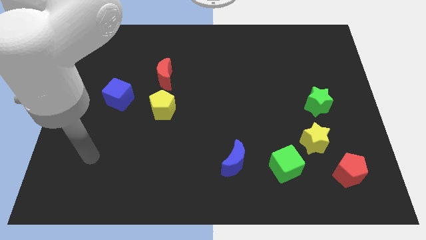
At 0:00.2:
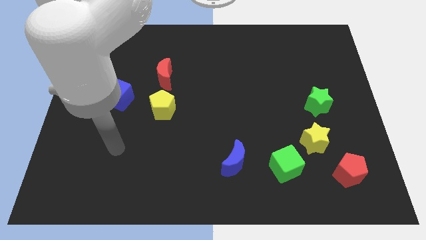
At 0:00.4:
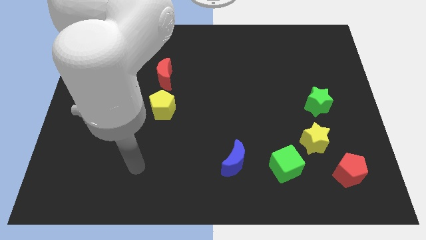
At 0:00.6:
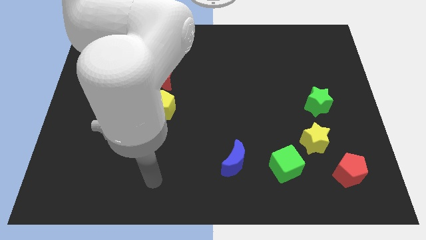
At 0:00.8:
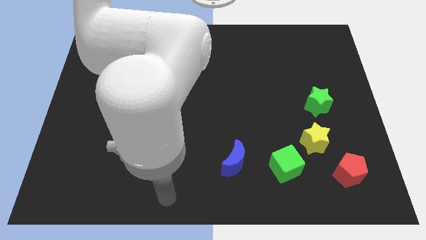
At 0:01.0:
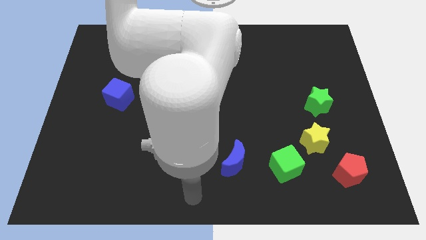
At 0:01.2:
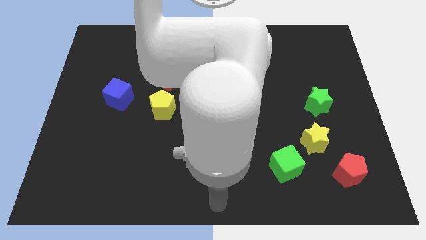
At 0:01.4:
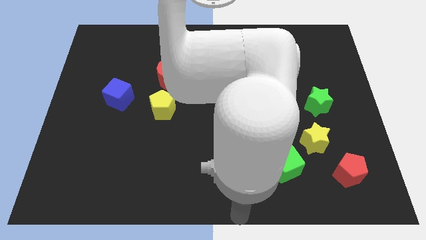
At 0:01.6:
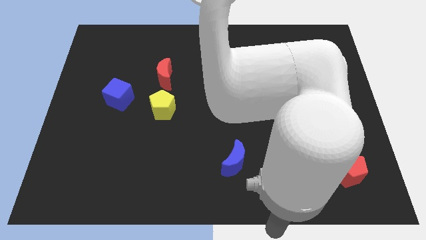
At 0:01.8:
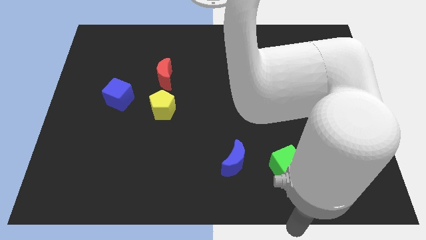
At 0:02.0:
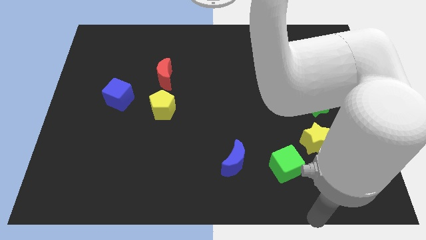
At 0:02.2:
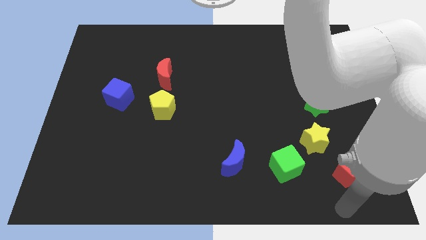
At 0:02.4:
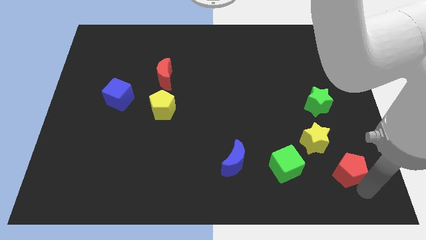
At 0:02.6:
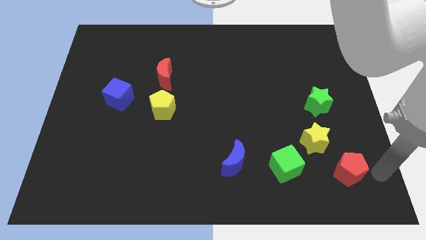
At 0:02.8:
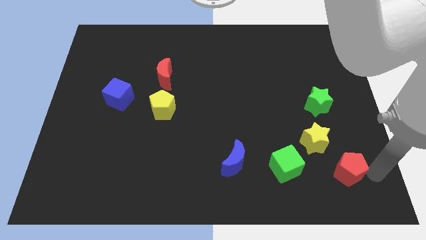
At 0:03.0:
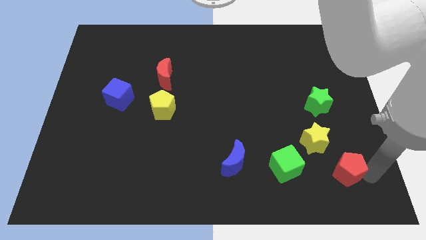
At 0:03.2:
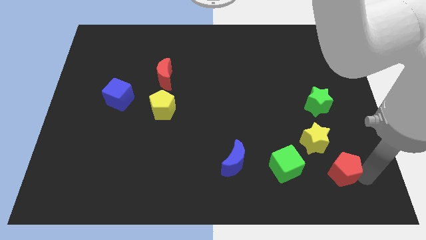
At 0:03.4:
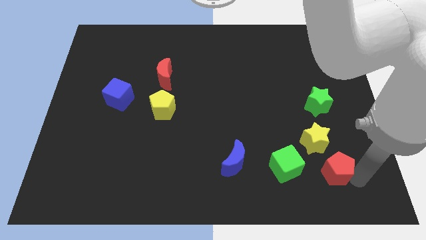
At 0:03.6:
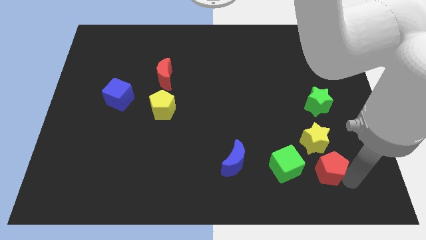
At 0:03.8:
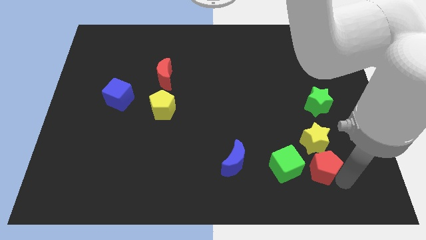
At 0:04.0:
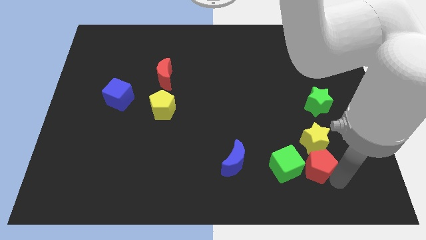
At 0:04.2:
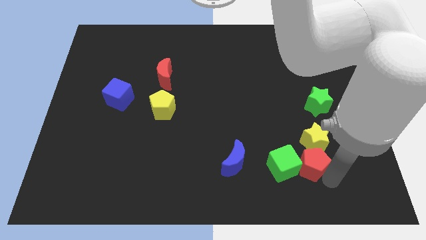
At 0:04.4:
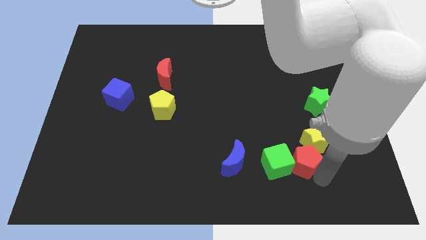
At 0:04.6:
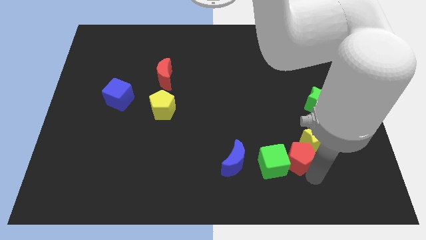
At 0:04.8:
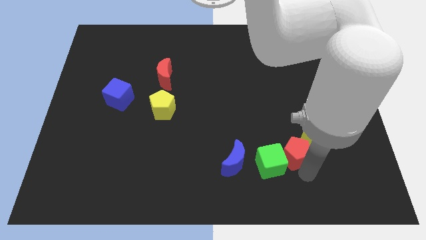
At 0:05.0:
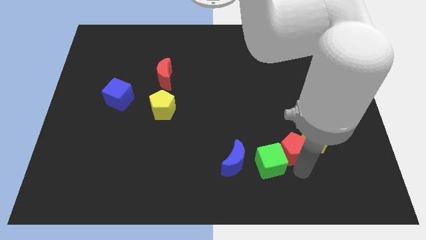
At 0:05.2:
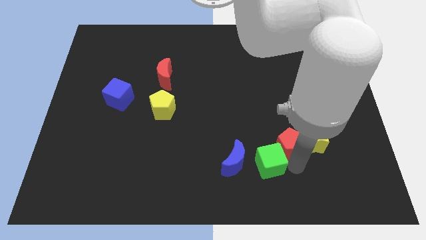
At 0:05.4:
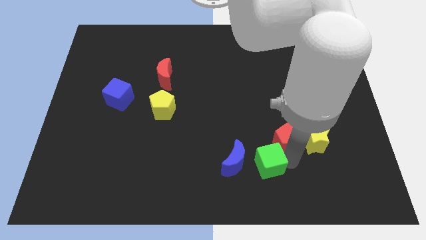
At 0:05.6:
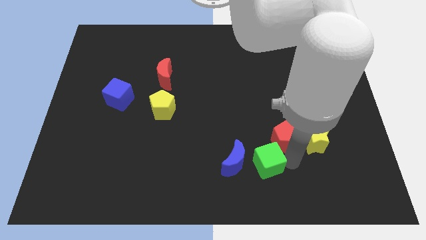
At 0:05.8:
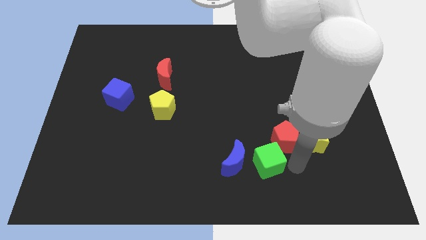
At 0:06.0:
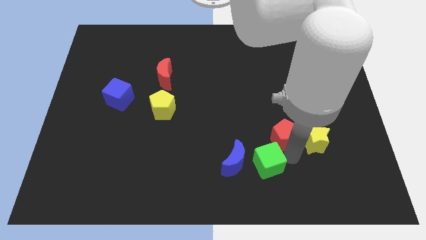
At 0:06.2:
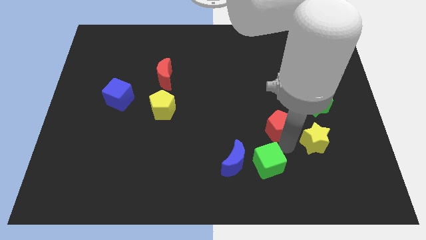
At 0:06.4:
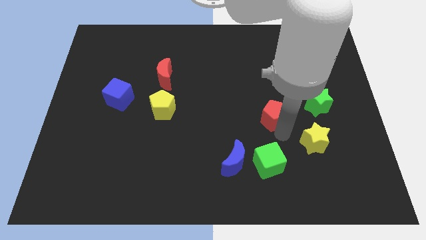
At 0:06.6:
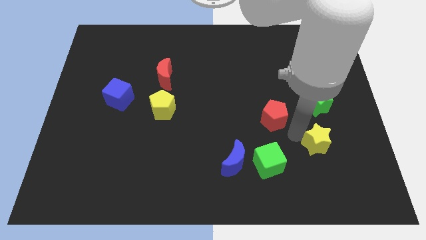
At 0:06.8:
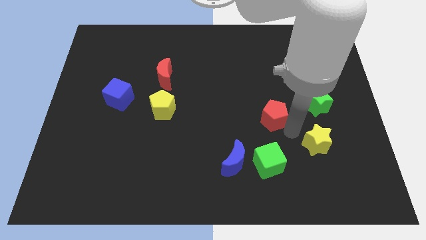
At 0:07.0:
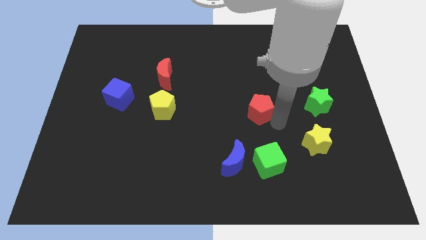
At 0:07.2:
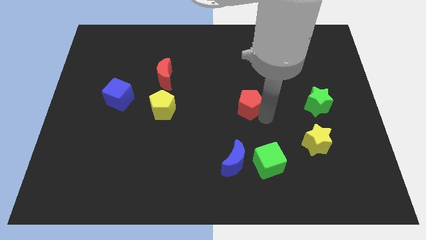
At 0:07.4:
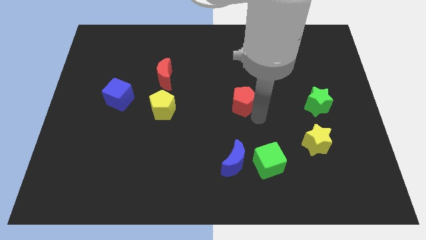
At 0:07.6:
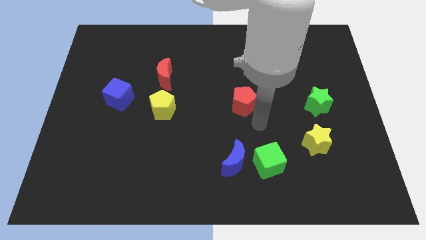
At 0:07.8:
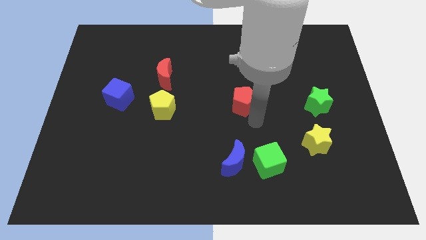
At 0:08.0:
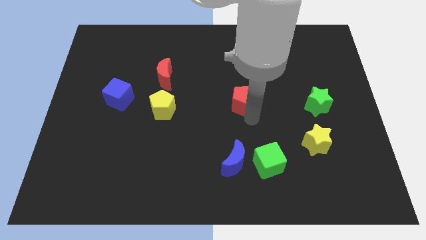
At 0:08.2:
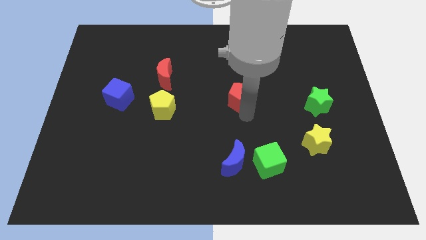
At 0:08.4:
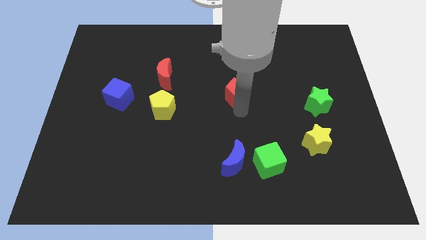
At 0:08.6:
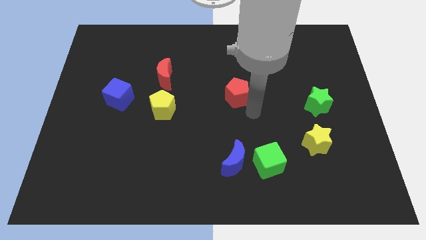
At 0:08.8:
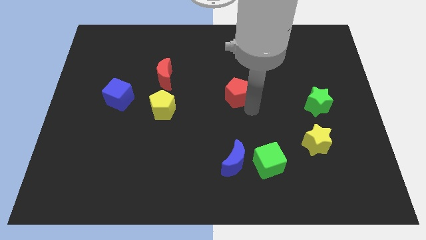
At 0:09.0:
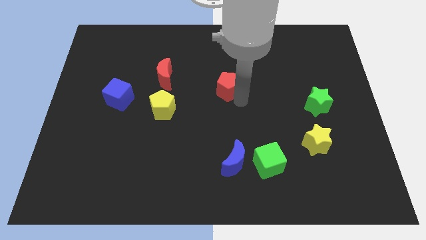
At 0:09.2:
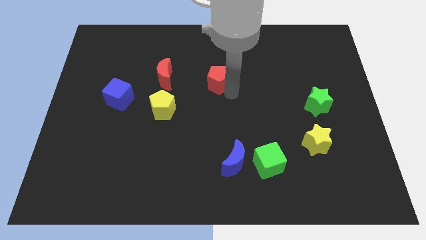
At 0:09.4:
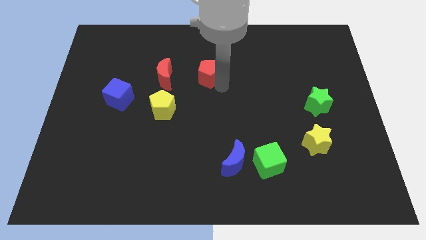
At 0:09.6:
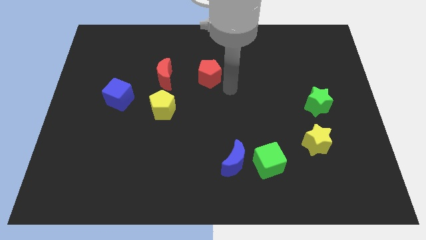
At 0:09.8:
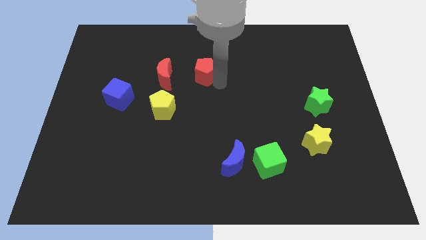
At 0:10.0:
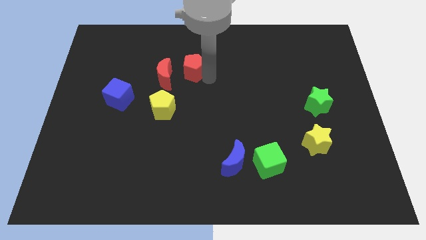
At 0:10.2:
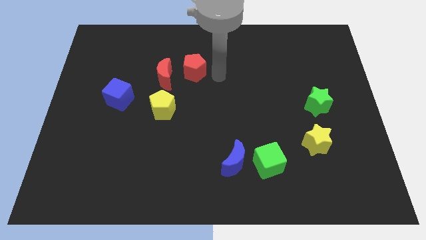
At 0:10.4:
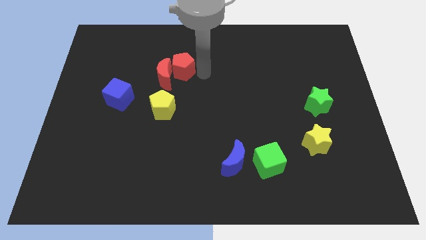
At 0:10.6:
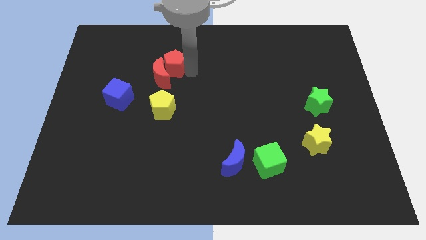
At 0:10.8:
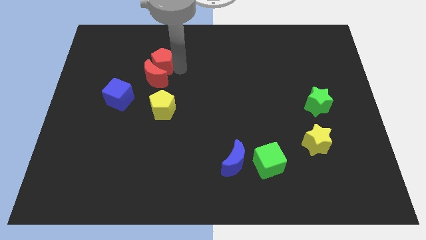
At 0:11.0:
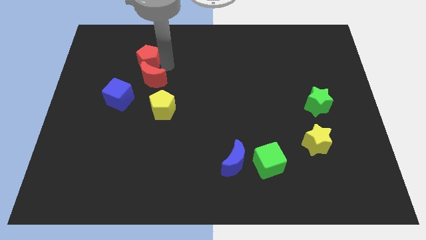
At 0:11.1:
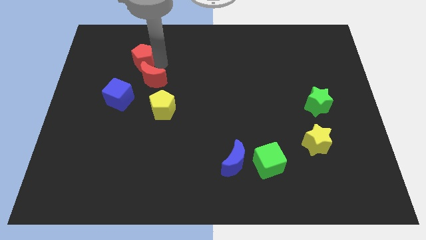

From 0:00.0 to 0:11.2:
slide the red pentagon to the top of the blue cube

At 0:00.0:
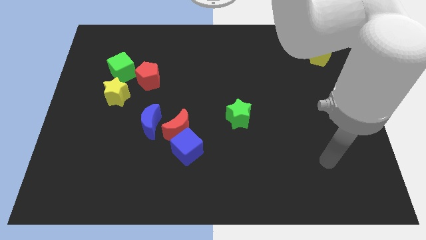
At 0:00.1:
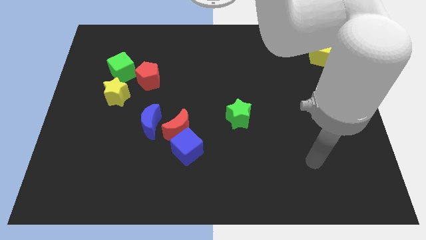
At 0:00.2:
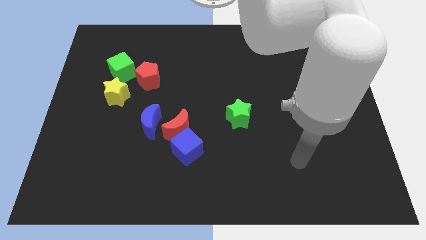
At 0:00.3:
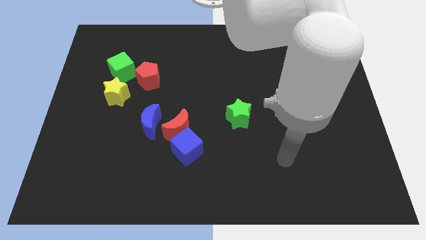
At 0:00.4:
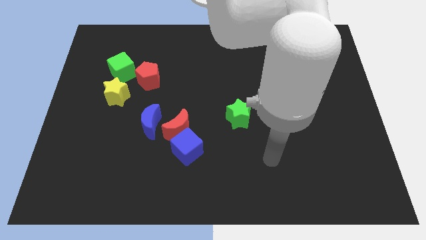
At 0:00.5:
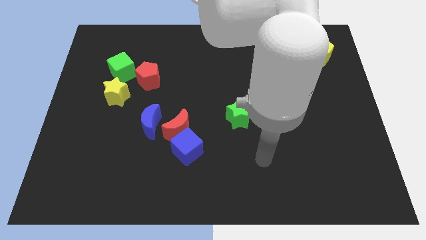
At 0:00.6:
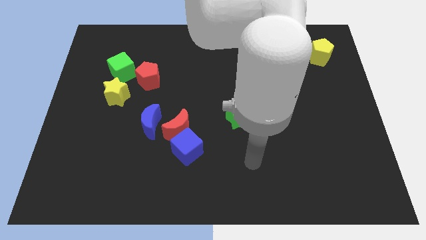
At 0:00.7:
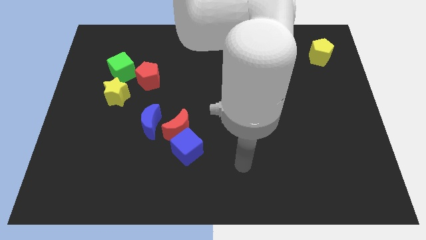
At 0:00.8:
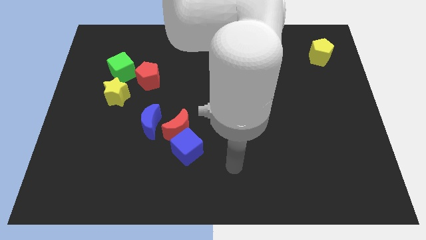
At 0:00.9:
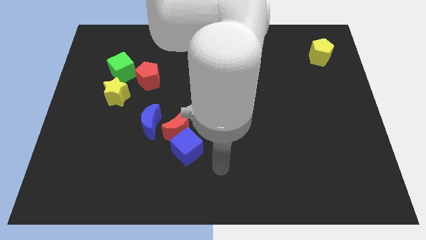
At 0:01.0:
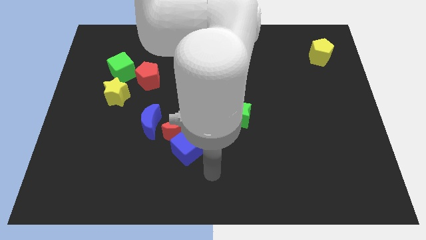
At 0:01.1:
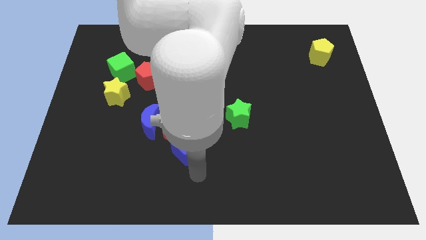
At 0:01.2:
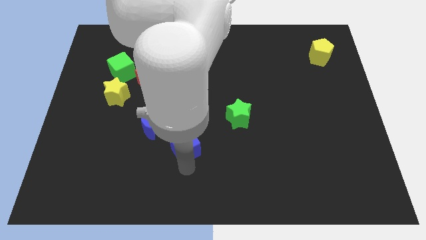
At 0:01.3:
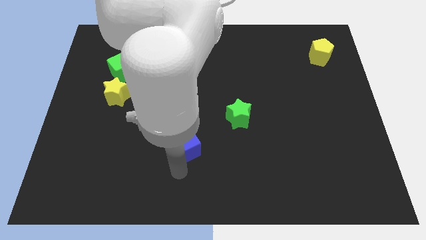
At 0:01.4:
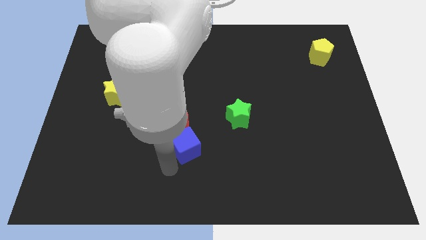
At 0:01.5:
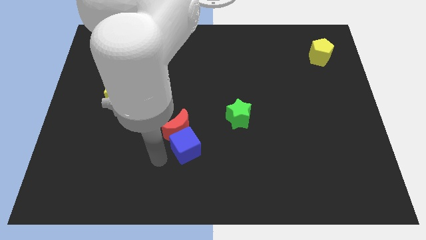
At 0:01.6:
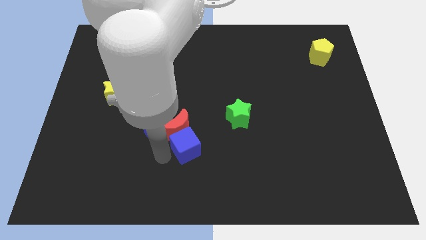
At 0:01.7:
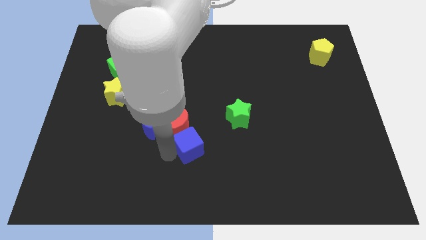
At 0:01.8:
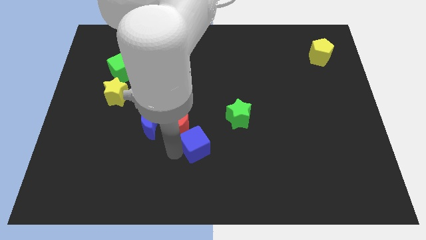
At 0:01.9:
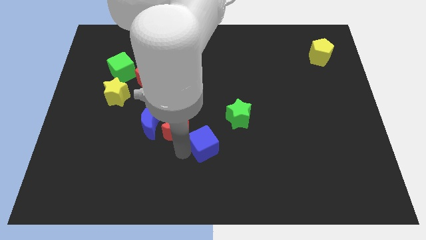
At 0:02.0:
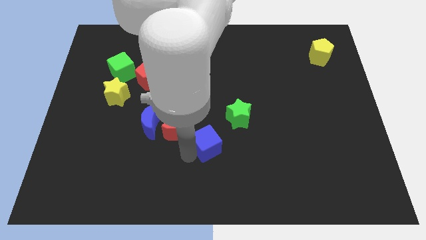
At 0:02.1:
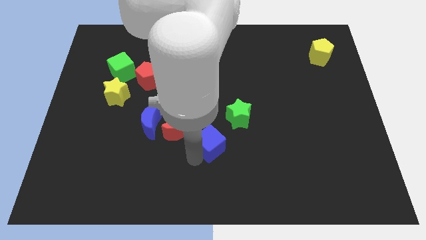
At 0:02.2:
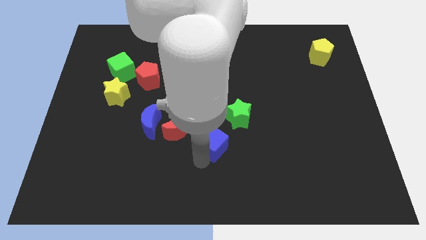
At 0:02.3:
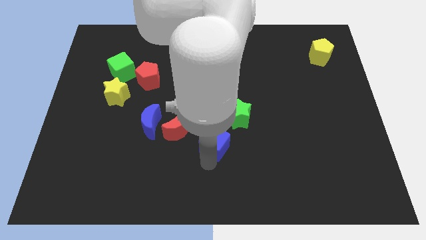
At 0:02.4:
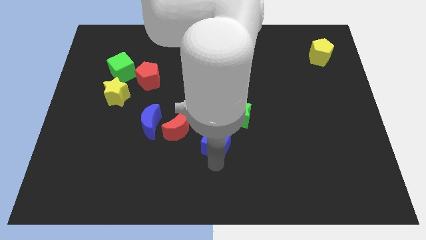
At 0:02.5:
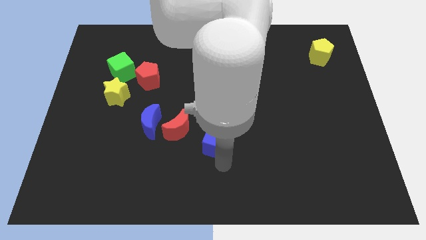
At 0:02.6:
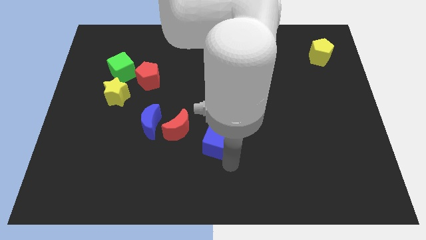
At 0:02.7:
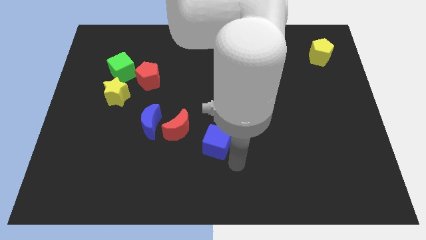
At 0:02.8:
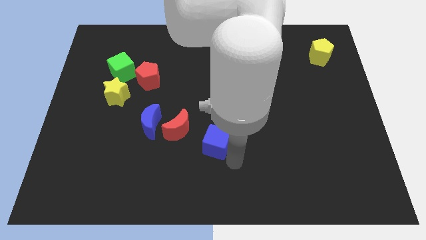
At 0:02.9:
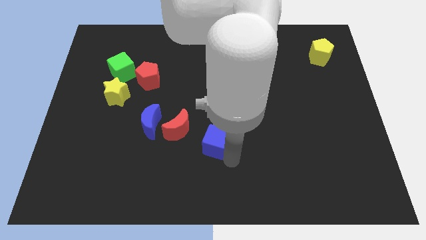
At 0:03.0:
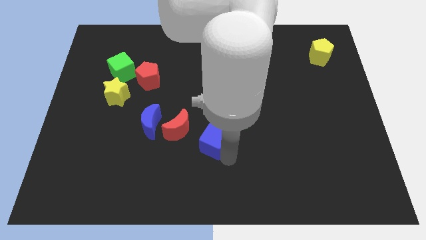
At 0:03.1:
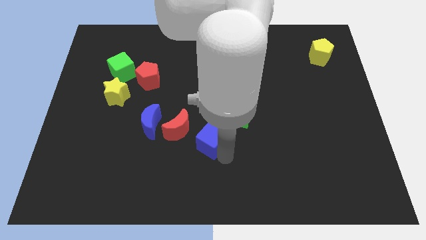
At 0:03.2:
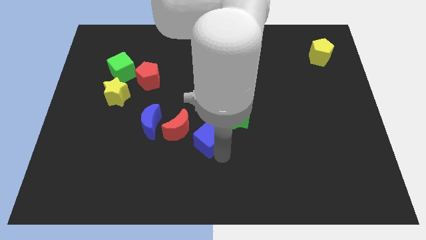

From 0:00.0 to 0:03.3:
move the blue cube to the right of the blue moon
